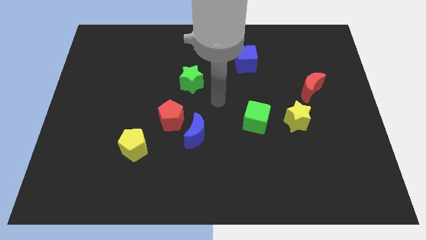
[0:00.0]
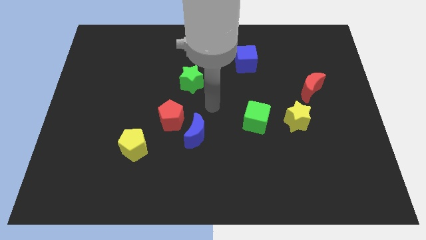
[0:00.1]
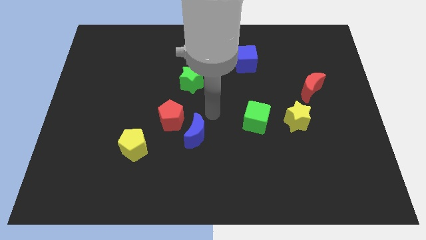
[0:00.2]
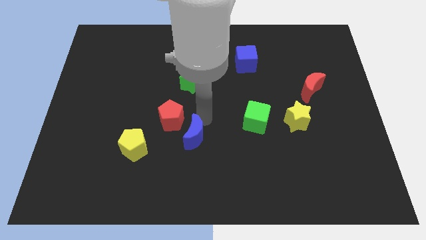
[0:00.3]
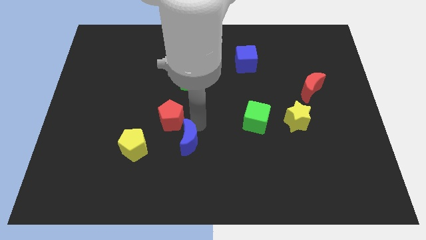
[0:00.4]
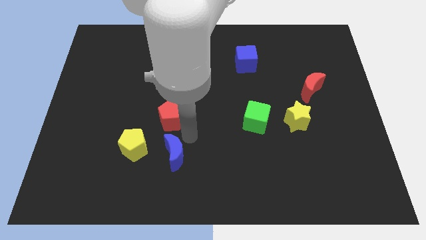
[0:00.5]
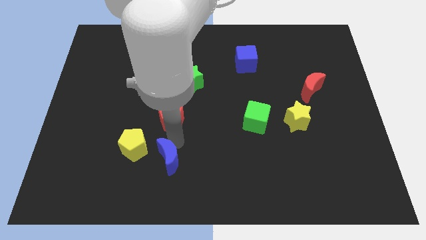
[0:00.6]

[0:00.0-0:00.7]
pull the red pentagon apart from the blue moon

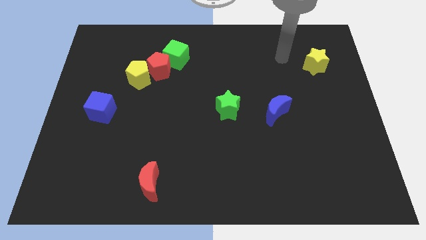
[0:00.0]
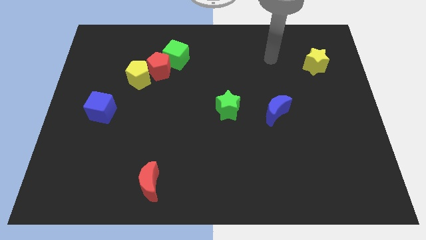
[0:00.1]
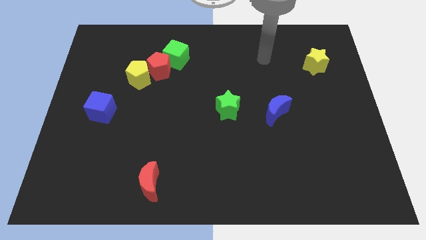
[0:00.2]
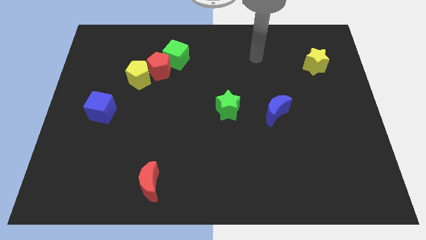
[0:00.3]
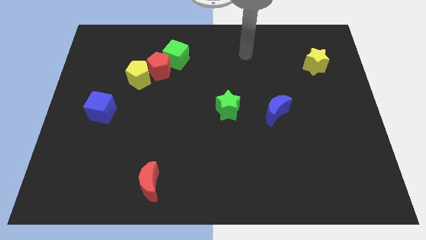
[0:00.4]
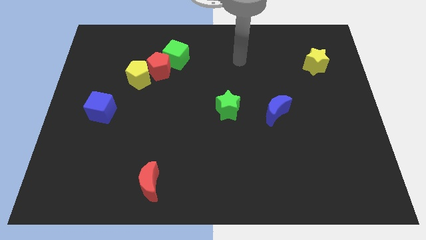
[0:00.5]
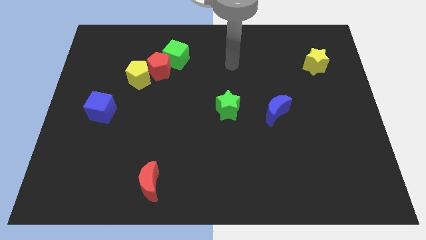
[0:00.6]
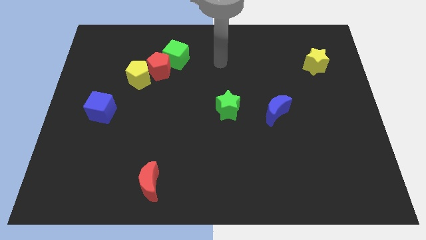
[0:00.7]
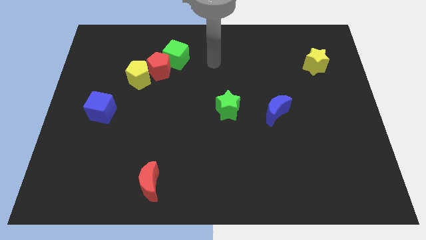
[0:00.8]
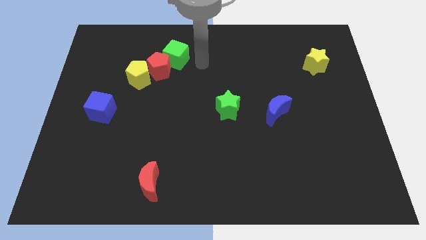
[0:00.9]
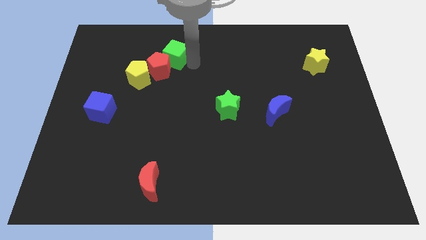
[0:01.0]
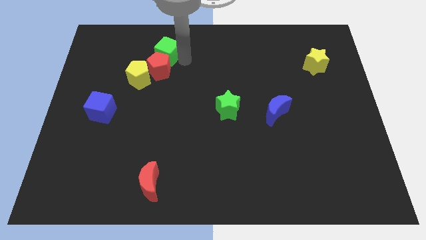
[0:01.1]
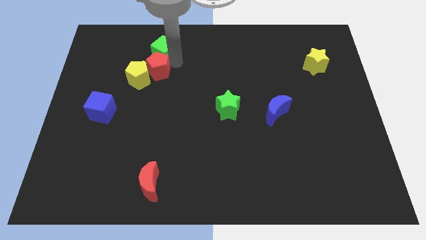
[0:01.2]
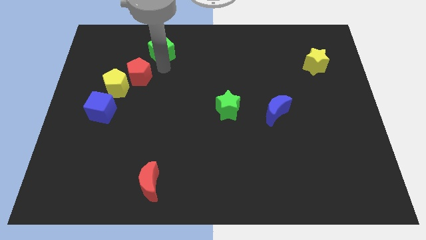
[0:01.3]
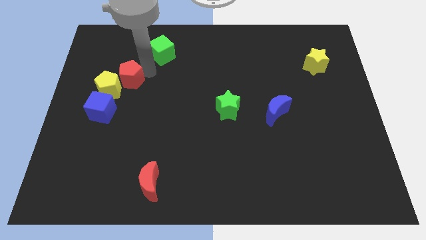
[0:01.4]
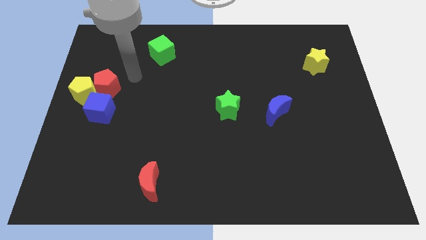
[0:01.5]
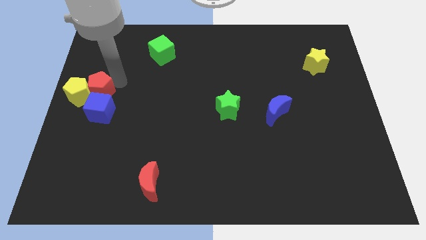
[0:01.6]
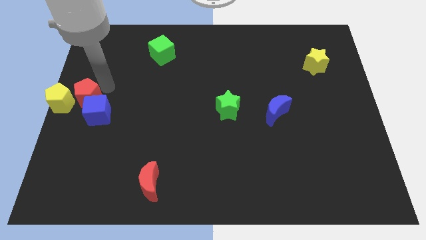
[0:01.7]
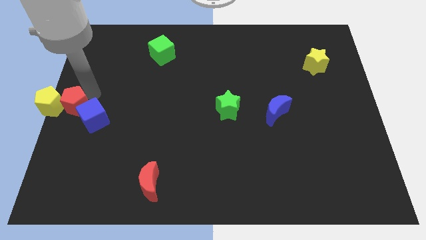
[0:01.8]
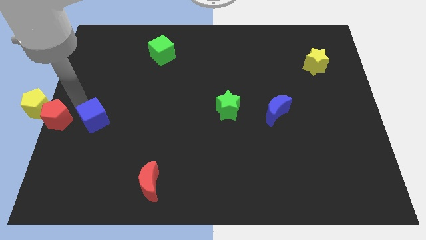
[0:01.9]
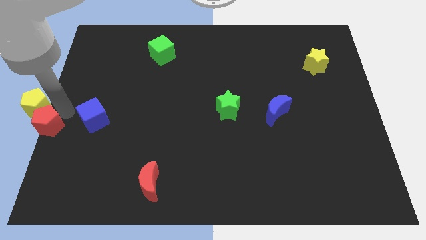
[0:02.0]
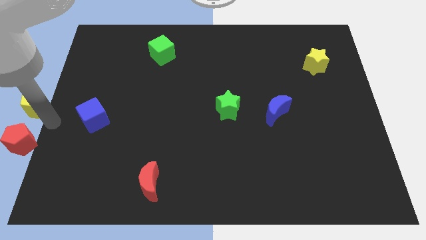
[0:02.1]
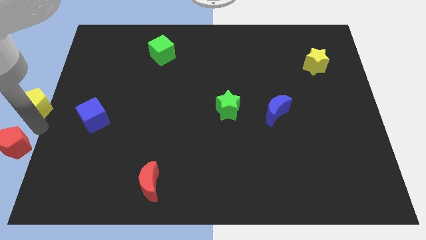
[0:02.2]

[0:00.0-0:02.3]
move the yellow pentagon away from the red pentagon

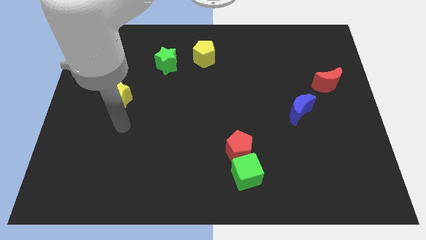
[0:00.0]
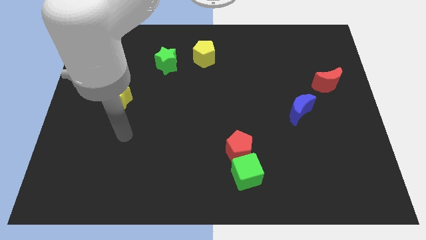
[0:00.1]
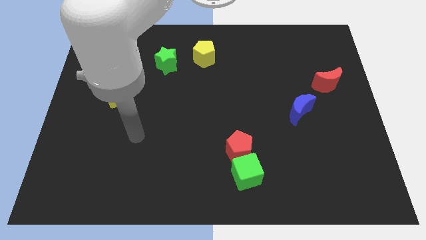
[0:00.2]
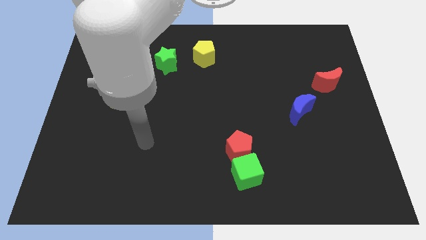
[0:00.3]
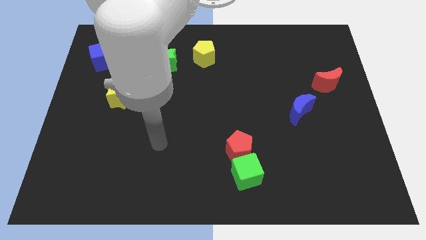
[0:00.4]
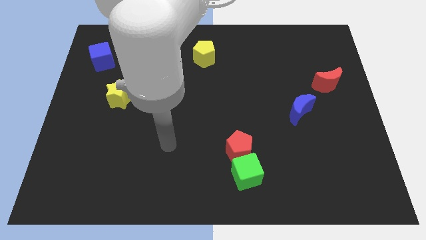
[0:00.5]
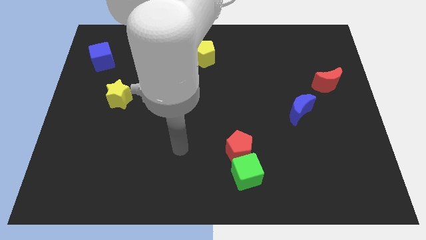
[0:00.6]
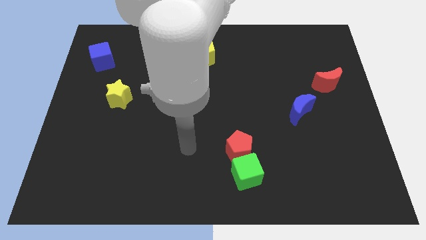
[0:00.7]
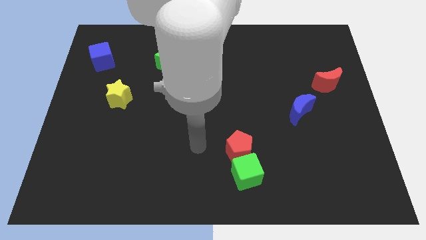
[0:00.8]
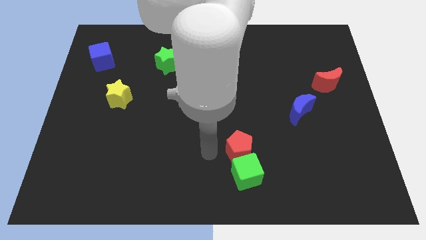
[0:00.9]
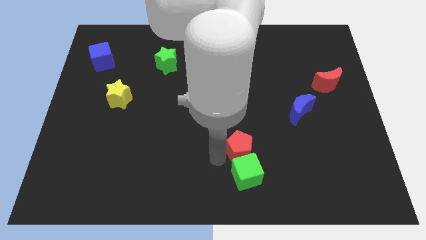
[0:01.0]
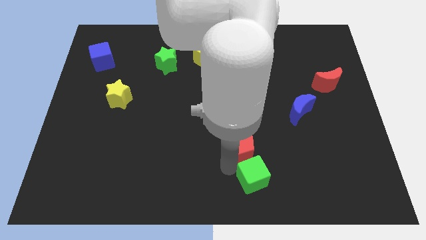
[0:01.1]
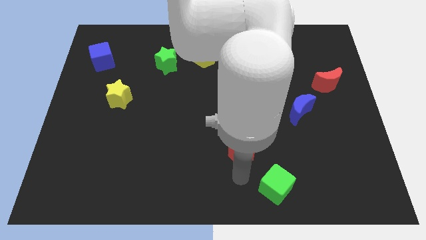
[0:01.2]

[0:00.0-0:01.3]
separate the red pentagon from the green cube

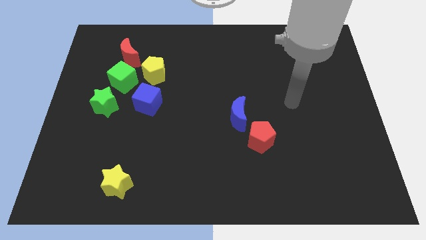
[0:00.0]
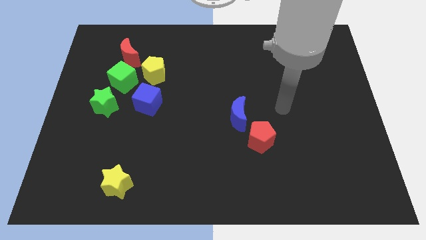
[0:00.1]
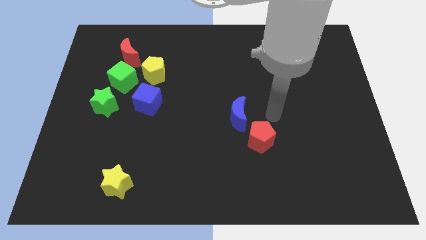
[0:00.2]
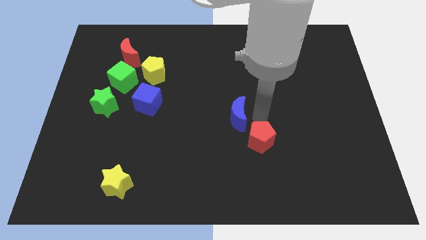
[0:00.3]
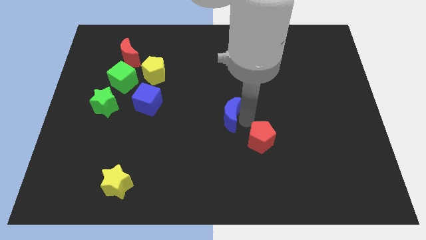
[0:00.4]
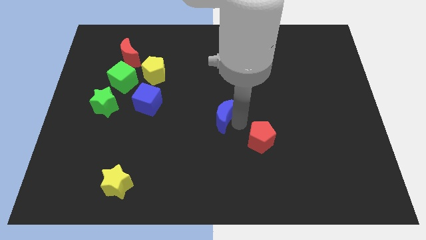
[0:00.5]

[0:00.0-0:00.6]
separate the red pentagon from the blue moon

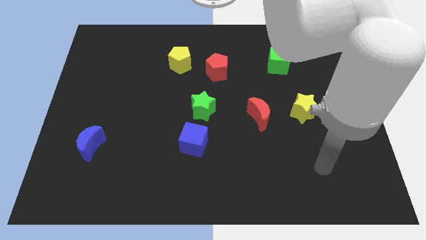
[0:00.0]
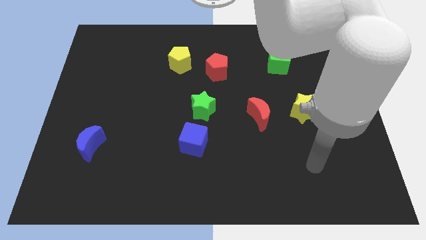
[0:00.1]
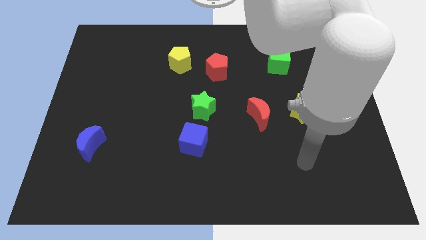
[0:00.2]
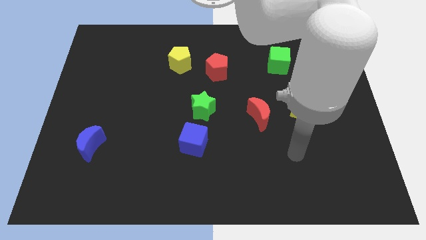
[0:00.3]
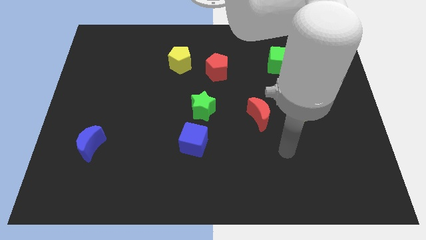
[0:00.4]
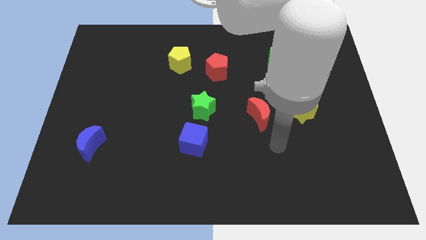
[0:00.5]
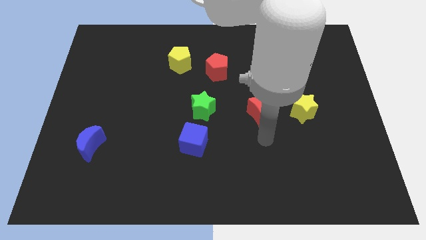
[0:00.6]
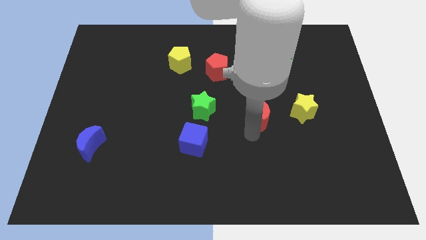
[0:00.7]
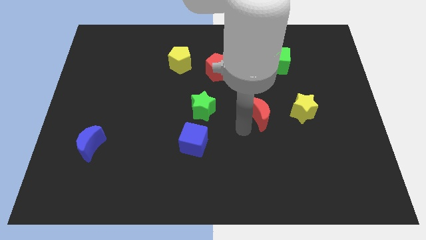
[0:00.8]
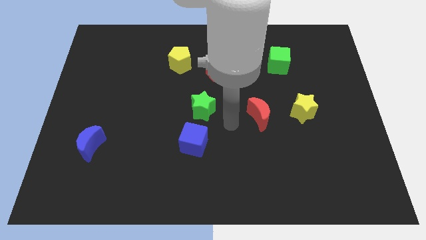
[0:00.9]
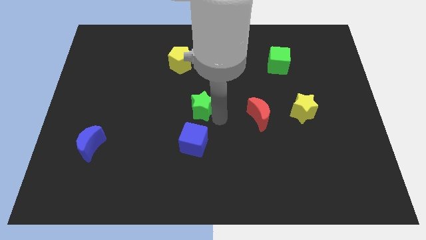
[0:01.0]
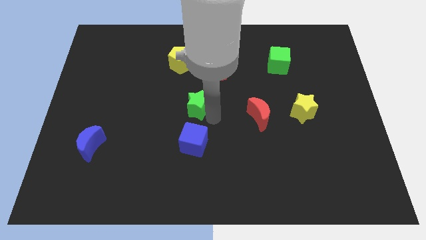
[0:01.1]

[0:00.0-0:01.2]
pull the blue cube apart from the green star

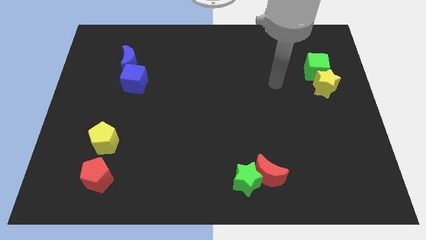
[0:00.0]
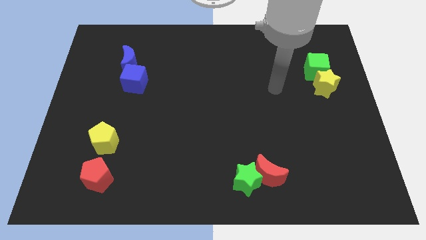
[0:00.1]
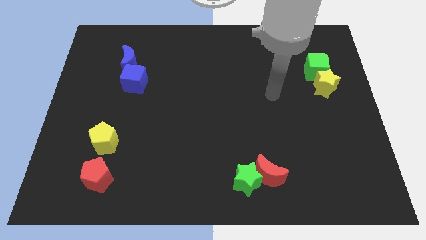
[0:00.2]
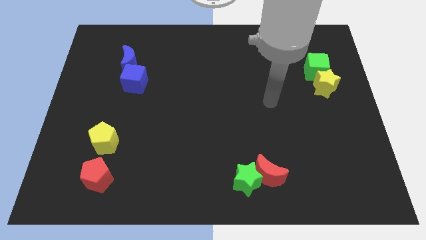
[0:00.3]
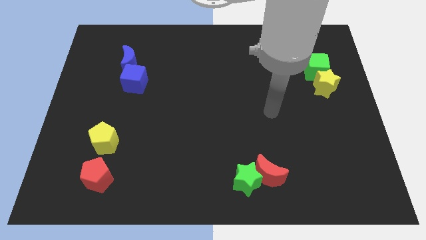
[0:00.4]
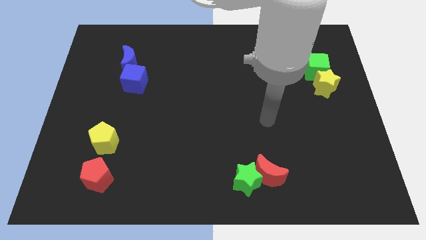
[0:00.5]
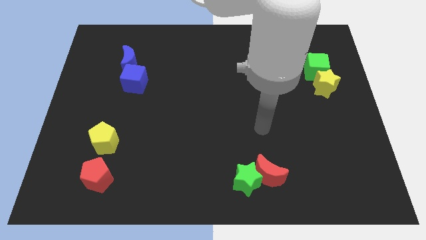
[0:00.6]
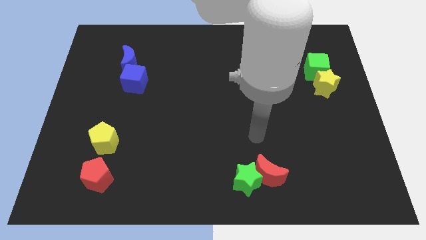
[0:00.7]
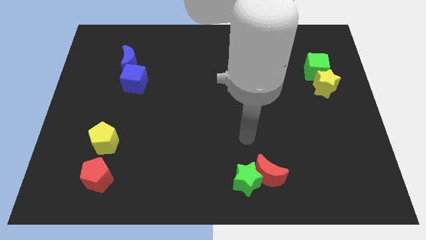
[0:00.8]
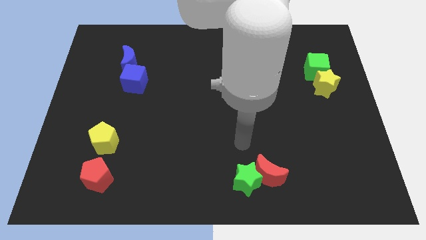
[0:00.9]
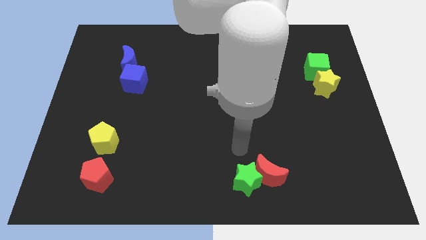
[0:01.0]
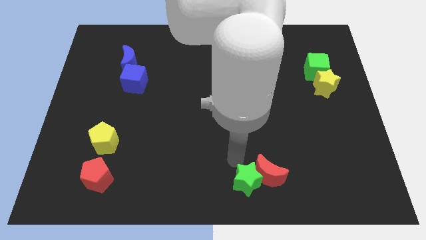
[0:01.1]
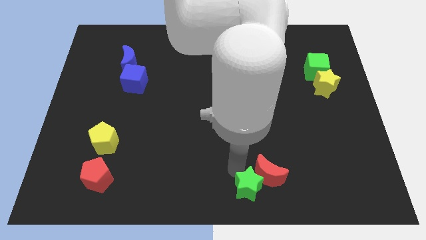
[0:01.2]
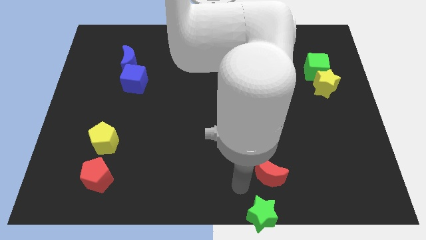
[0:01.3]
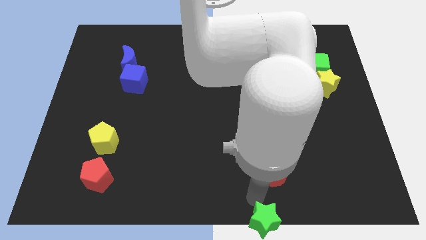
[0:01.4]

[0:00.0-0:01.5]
pull the red moon apart from the green star

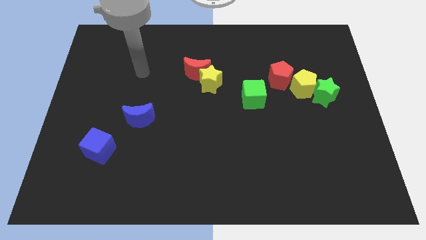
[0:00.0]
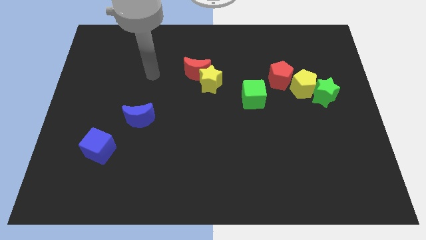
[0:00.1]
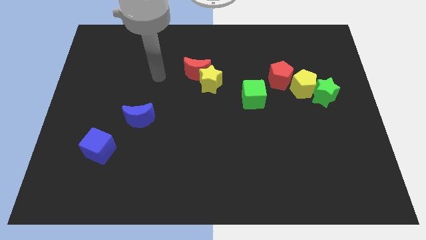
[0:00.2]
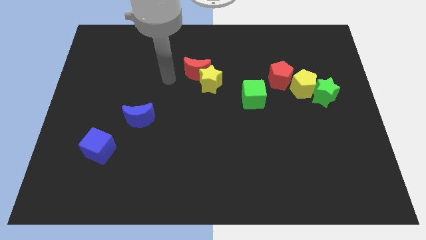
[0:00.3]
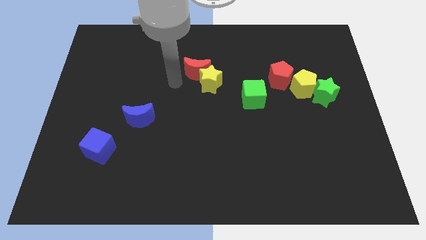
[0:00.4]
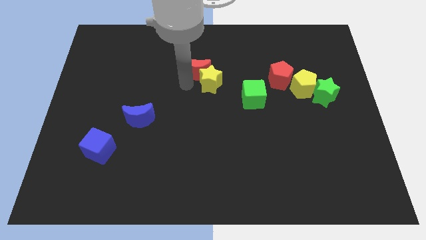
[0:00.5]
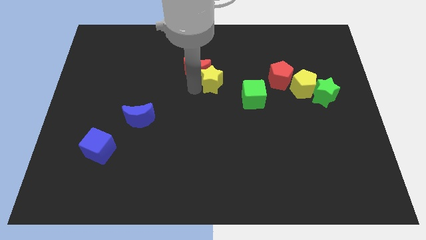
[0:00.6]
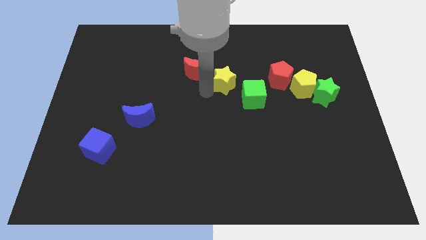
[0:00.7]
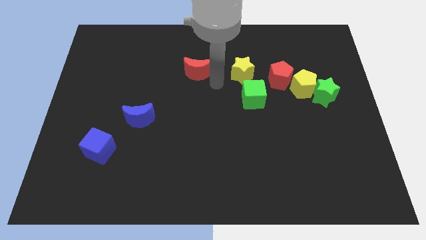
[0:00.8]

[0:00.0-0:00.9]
pull the red moon apart from the yellow star

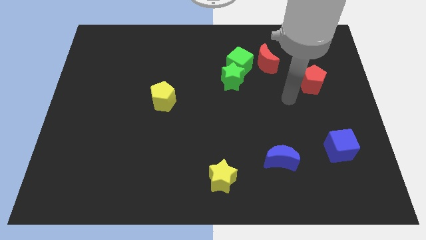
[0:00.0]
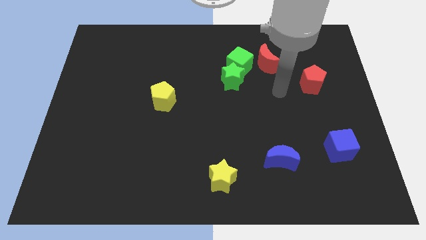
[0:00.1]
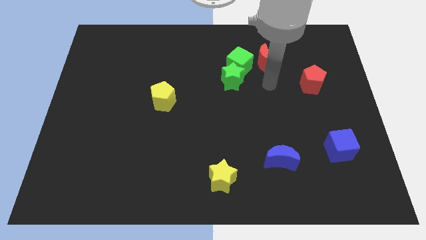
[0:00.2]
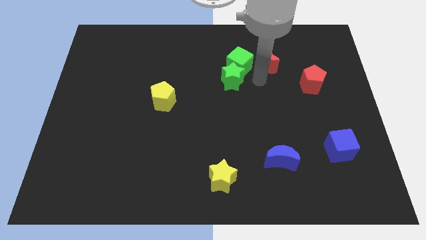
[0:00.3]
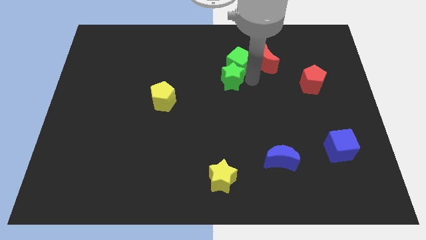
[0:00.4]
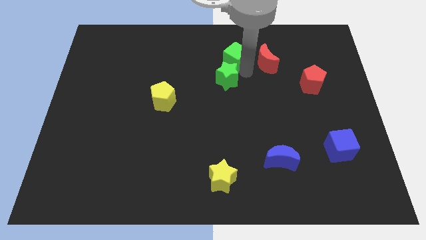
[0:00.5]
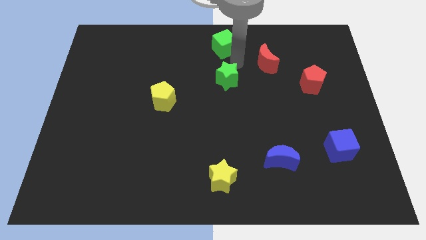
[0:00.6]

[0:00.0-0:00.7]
move the green star away from the green cube
